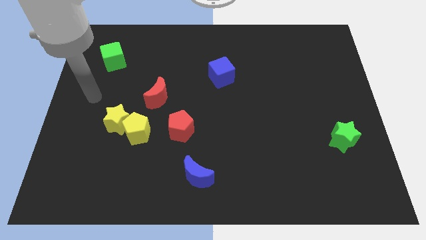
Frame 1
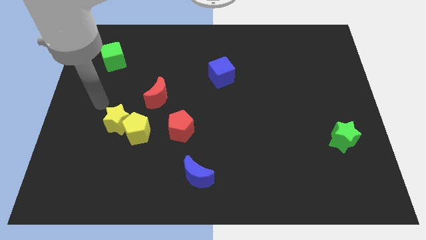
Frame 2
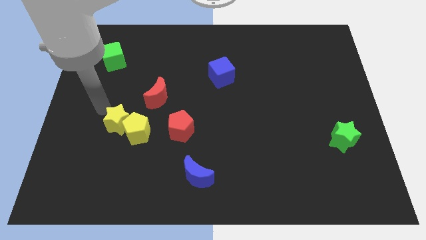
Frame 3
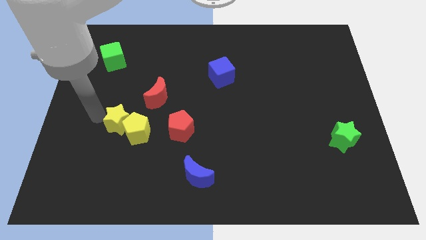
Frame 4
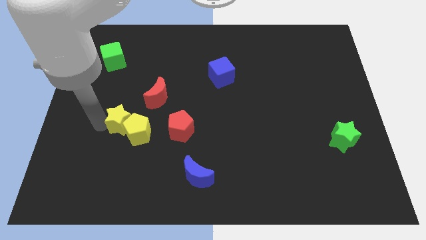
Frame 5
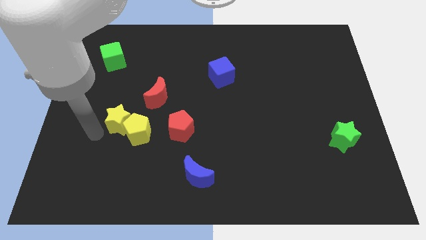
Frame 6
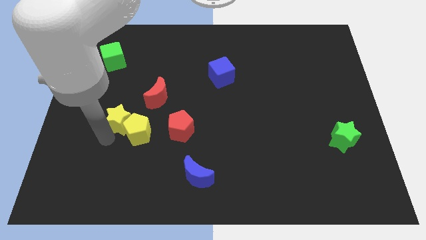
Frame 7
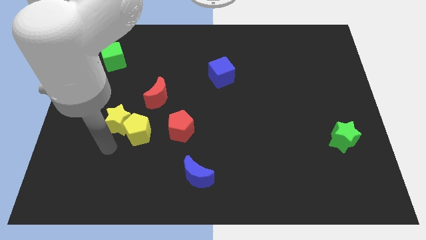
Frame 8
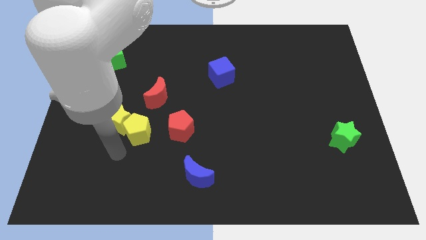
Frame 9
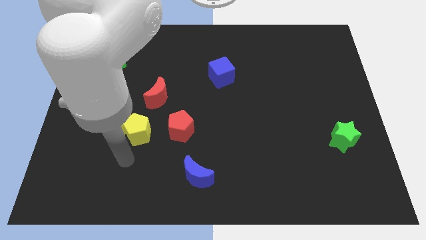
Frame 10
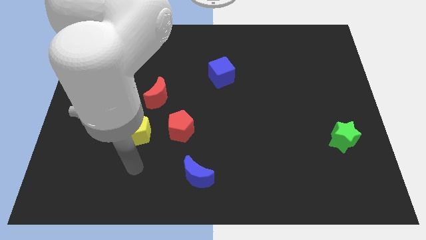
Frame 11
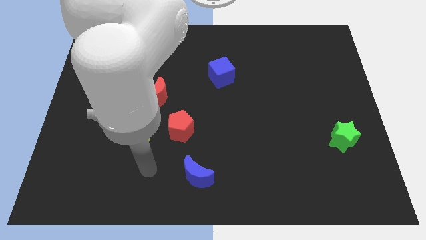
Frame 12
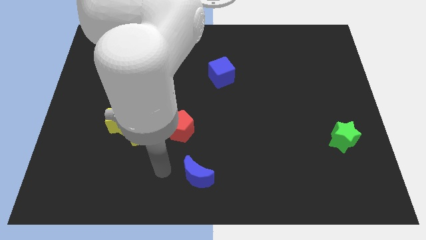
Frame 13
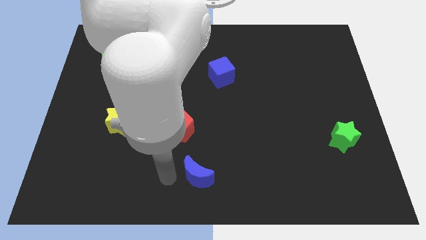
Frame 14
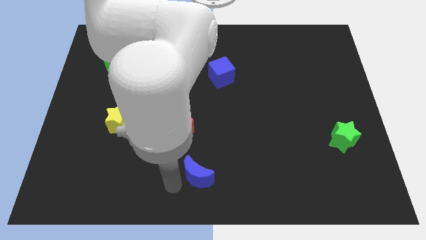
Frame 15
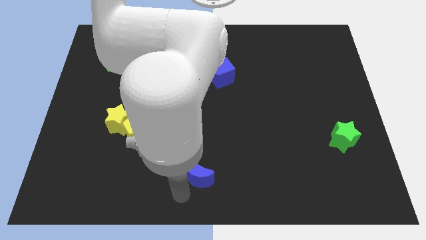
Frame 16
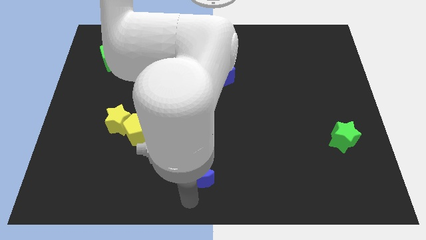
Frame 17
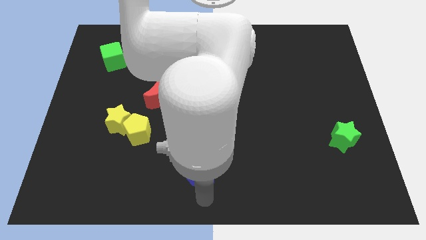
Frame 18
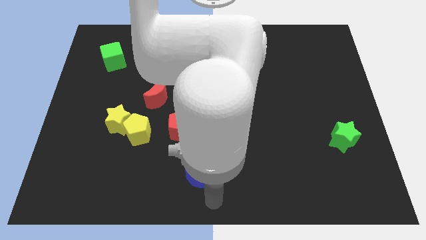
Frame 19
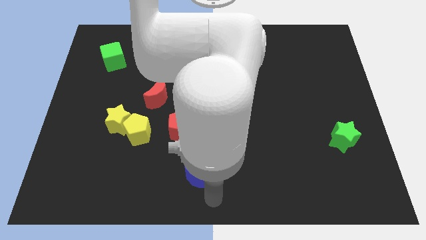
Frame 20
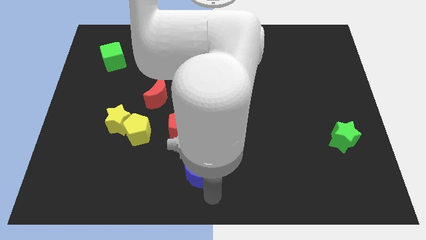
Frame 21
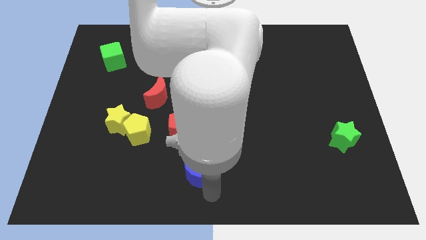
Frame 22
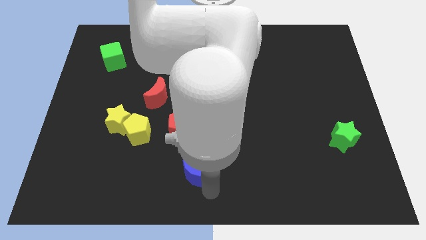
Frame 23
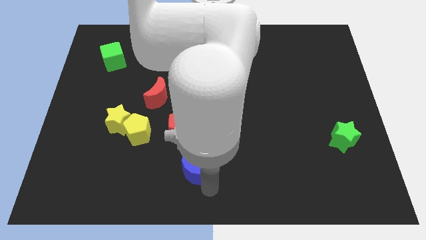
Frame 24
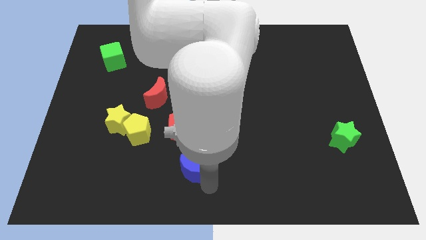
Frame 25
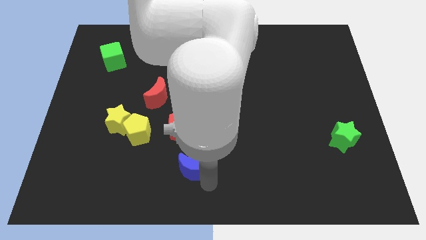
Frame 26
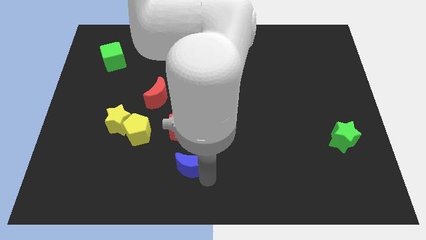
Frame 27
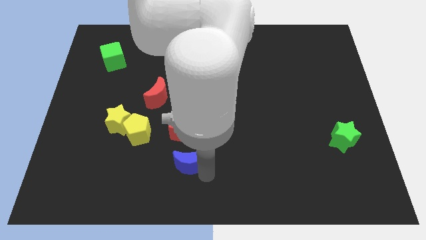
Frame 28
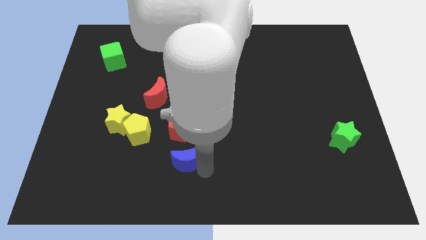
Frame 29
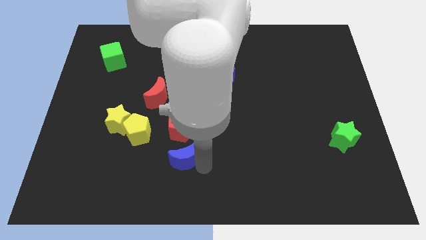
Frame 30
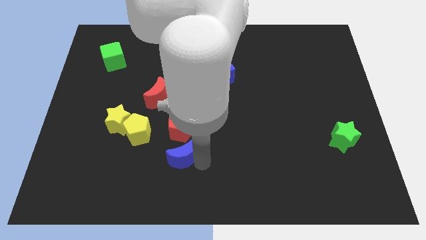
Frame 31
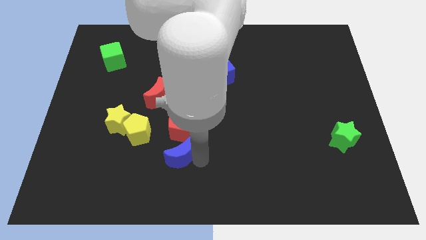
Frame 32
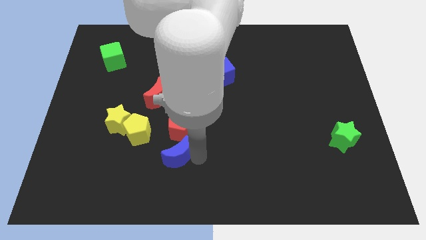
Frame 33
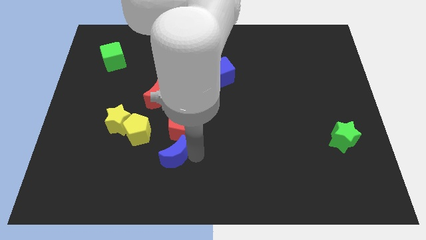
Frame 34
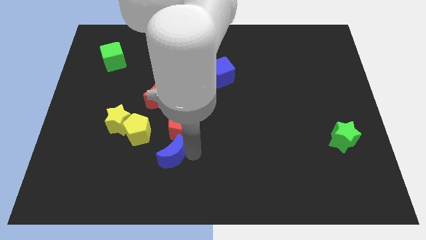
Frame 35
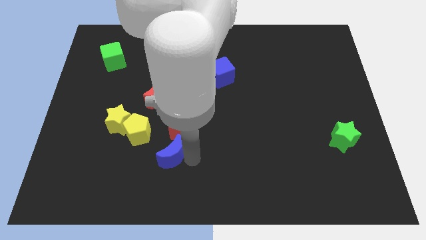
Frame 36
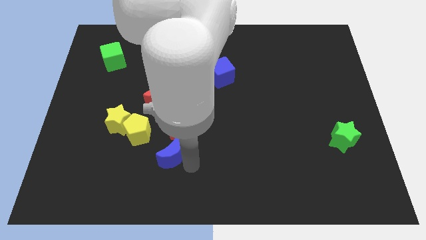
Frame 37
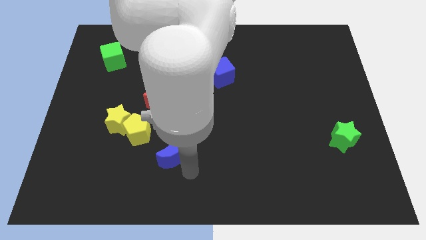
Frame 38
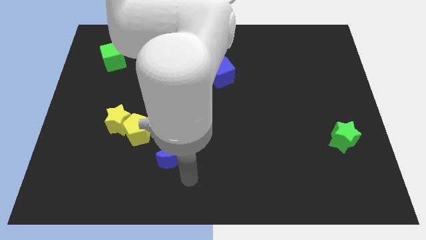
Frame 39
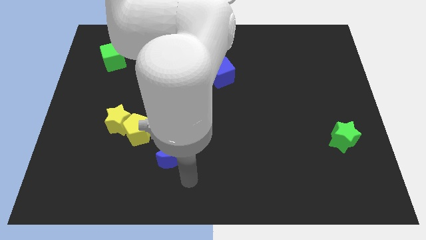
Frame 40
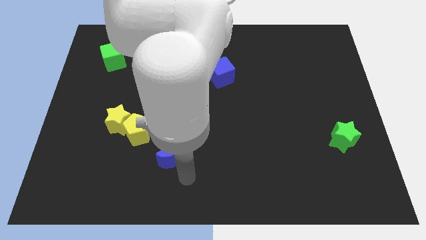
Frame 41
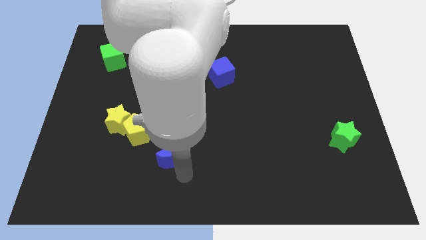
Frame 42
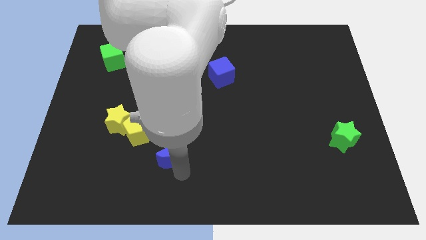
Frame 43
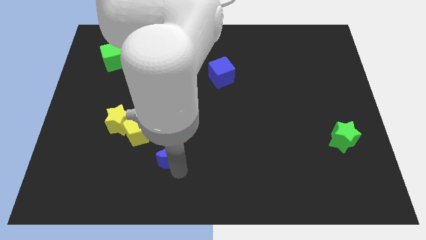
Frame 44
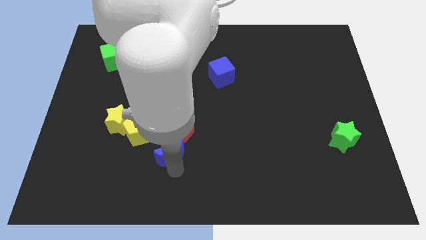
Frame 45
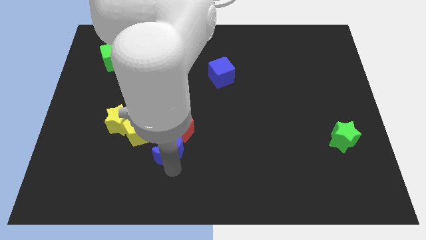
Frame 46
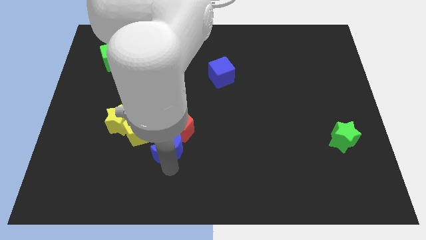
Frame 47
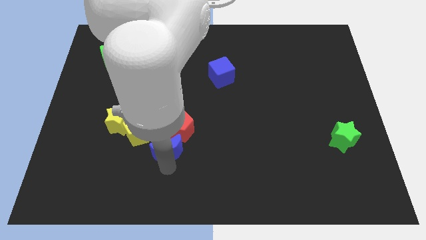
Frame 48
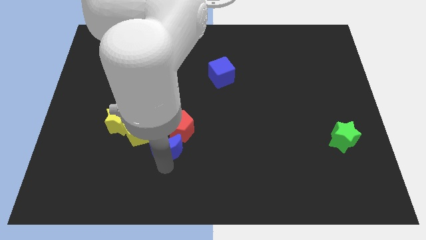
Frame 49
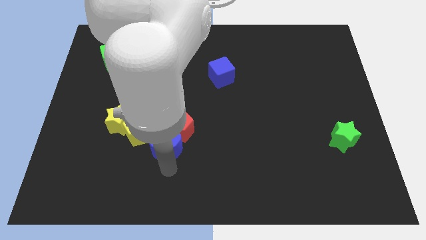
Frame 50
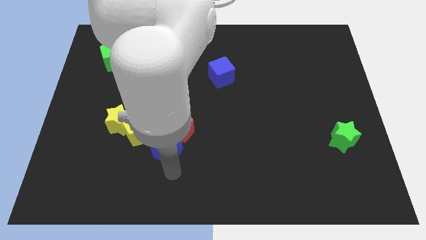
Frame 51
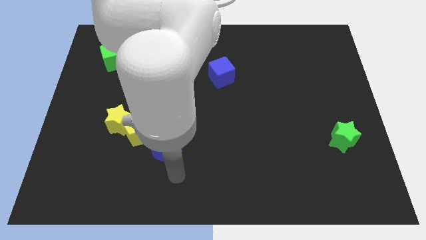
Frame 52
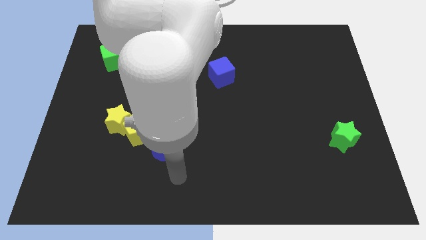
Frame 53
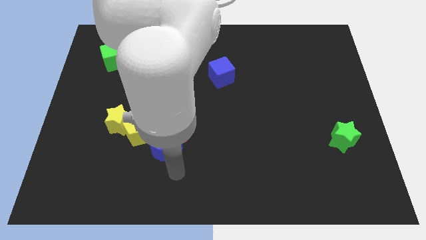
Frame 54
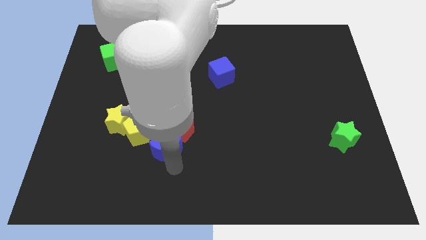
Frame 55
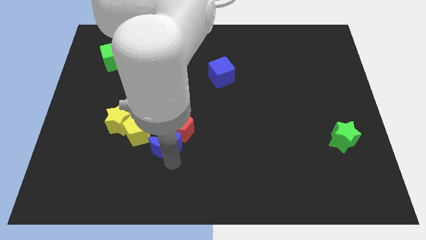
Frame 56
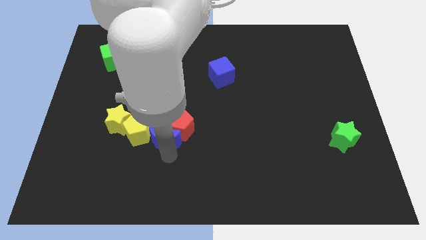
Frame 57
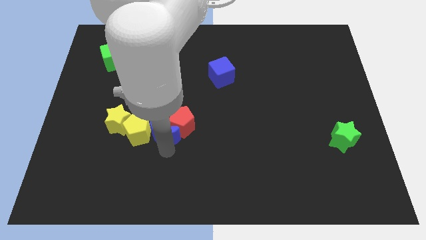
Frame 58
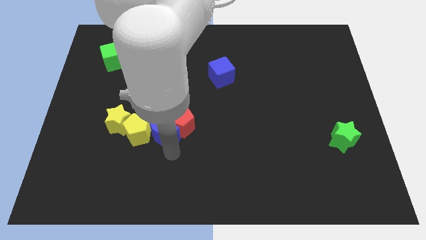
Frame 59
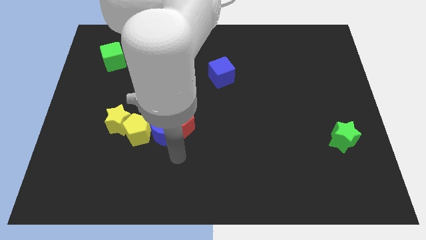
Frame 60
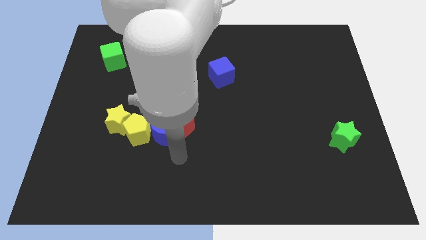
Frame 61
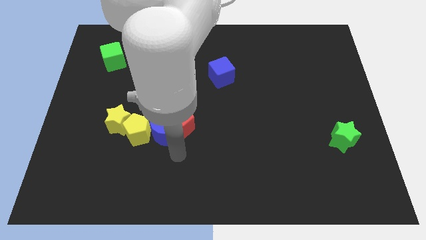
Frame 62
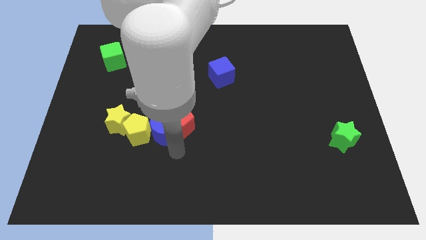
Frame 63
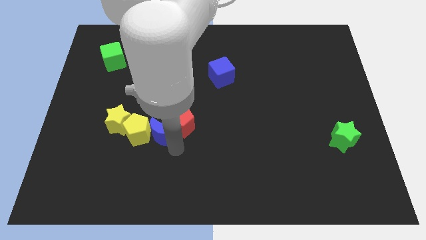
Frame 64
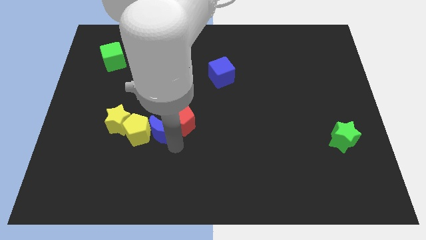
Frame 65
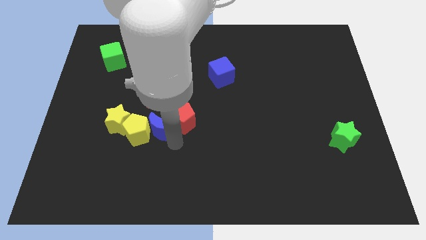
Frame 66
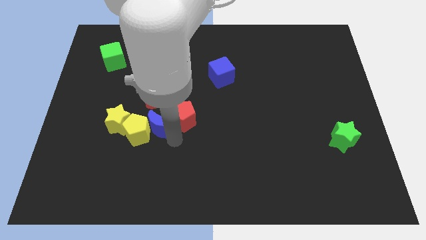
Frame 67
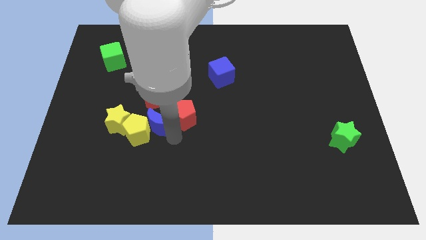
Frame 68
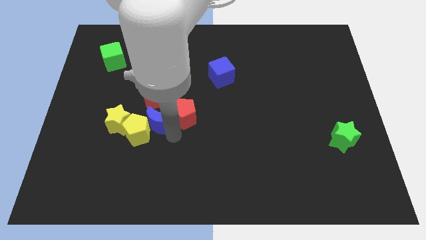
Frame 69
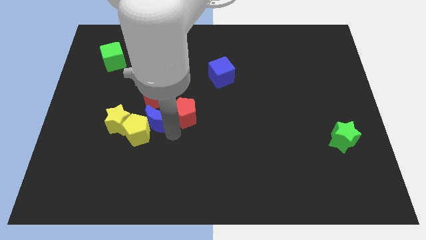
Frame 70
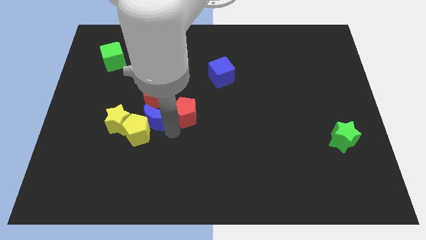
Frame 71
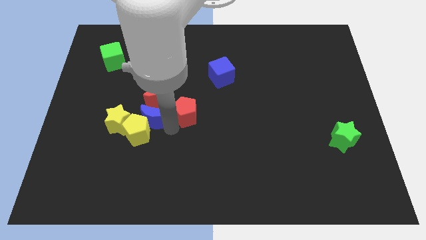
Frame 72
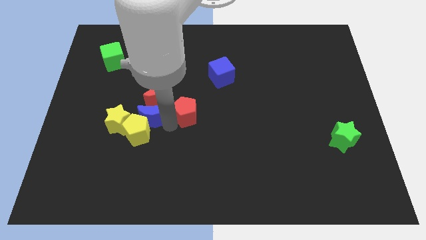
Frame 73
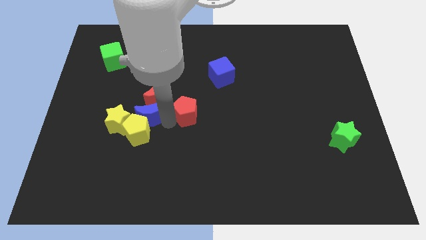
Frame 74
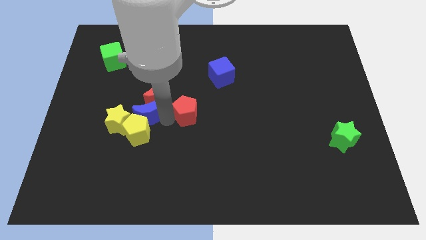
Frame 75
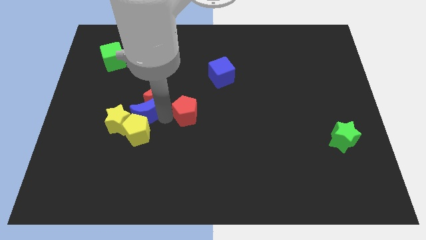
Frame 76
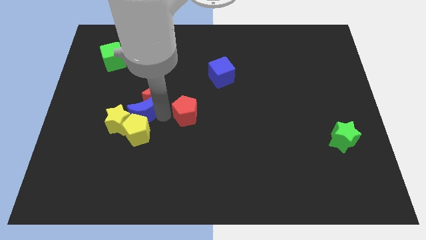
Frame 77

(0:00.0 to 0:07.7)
slide the blue moon up and to the left diagonally

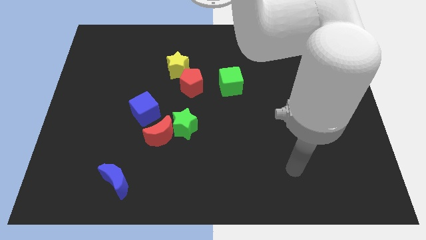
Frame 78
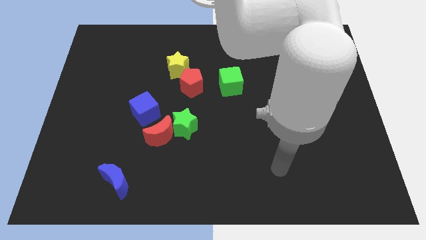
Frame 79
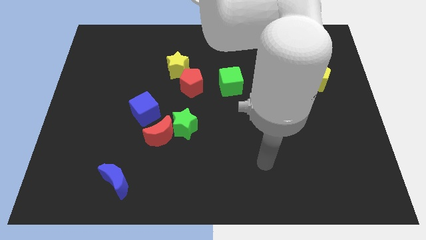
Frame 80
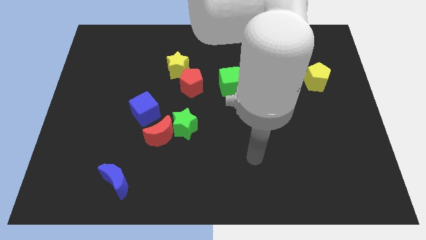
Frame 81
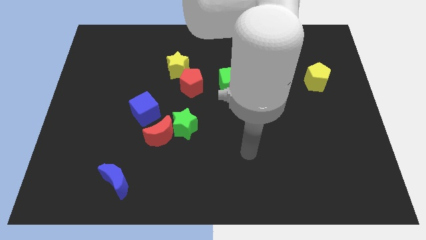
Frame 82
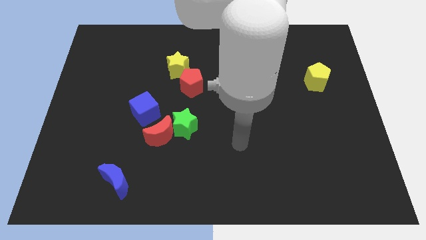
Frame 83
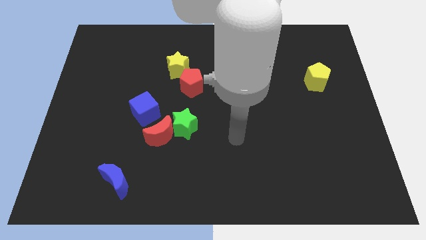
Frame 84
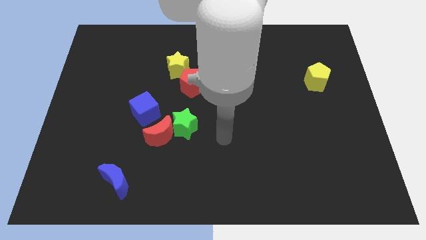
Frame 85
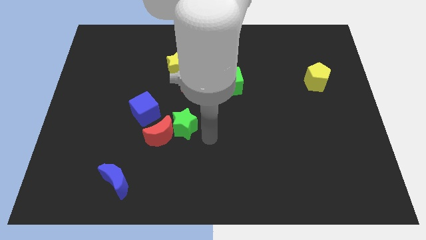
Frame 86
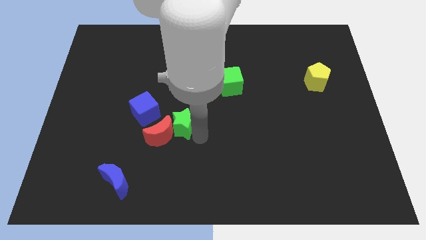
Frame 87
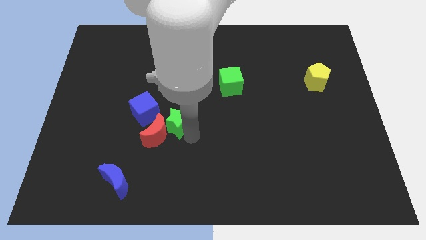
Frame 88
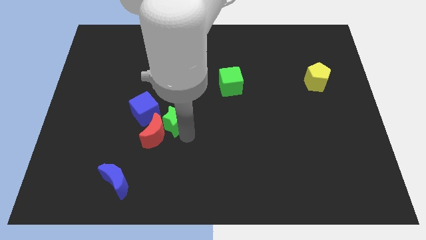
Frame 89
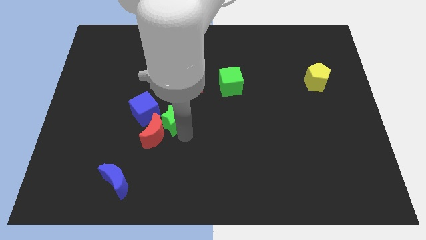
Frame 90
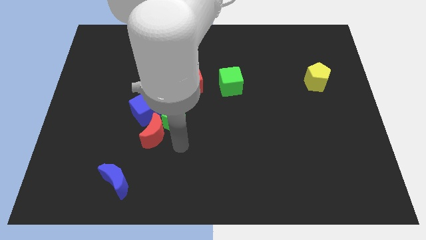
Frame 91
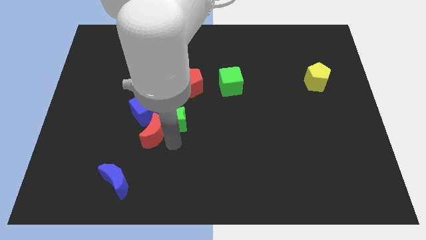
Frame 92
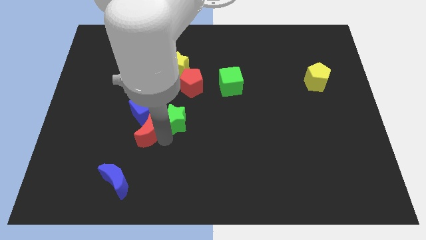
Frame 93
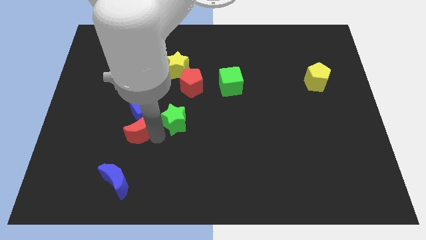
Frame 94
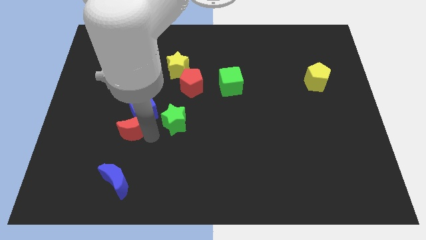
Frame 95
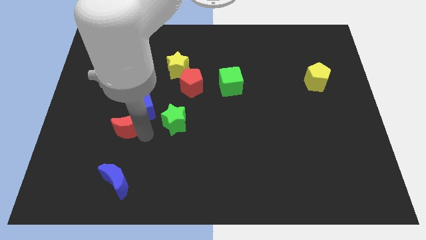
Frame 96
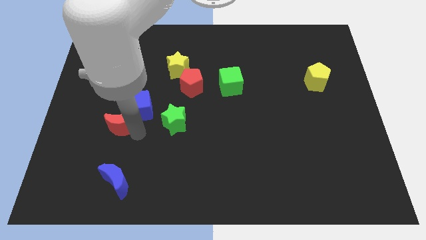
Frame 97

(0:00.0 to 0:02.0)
slightly move the red moon up and to the left diagonally
